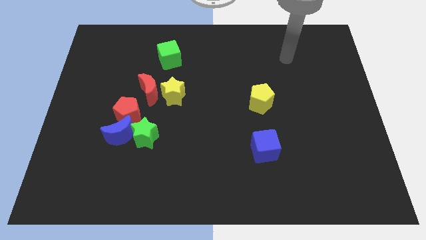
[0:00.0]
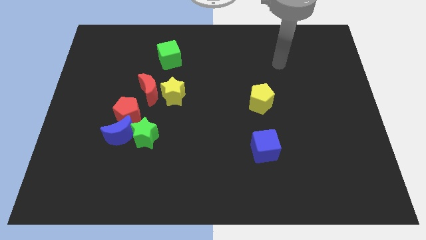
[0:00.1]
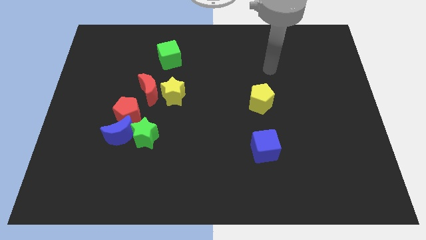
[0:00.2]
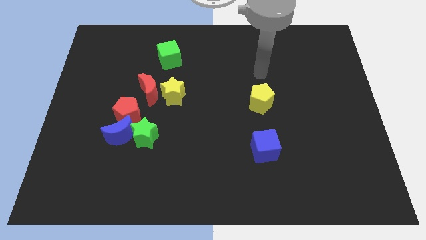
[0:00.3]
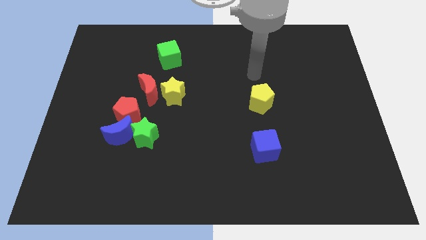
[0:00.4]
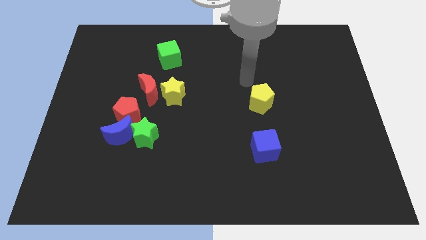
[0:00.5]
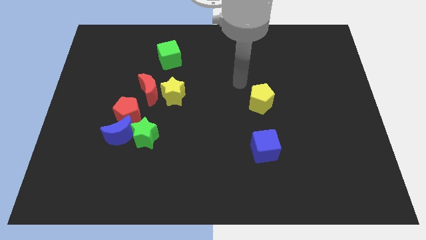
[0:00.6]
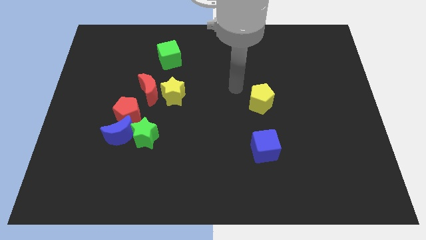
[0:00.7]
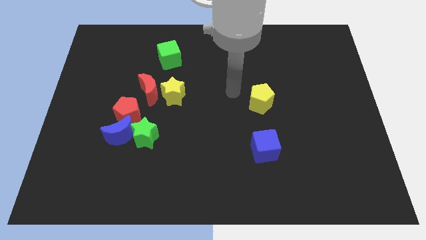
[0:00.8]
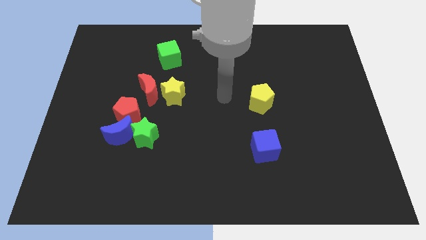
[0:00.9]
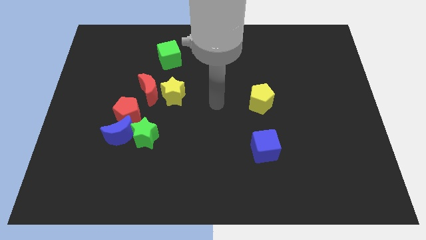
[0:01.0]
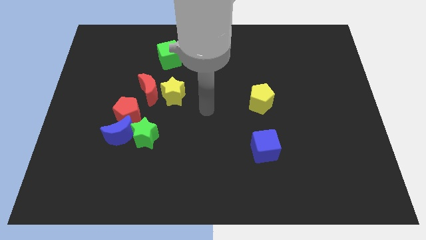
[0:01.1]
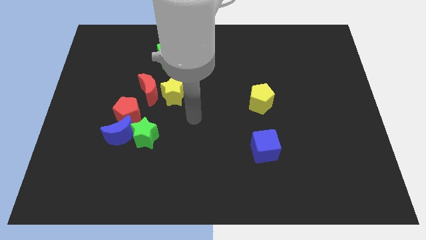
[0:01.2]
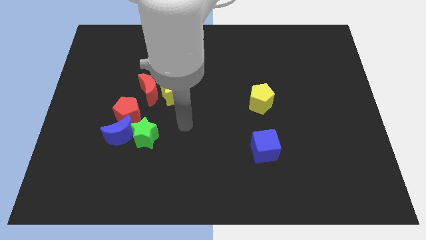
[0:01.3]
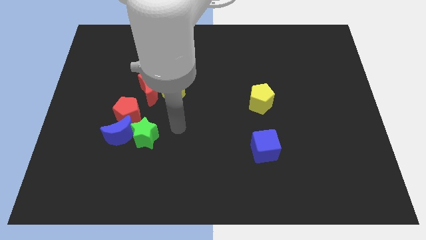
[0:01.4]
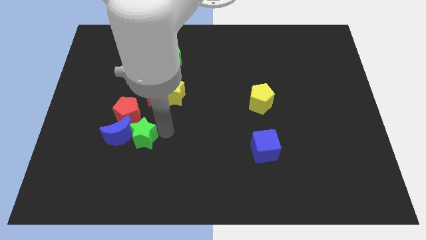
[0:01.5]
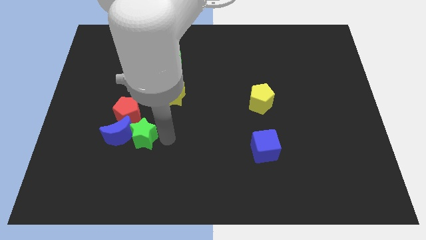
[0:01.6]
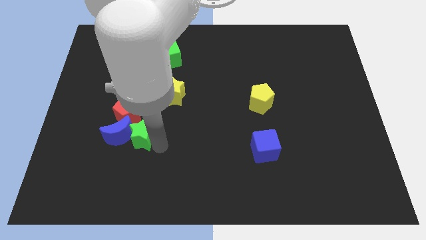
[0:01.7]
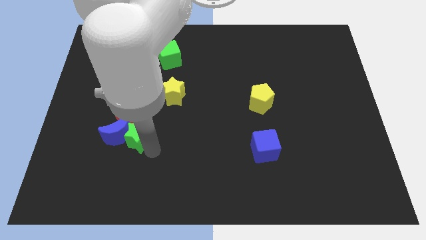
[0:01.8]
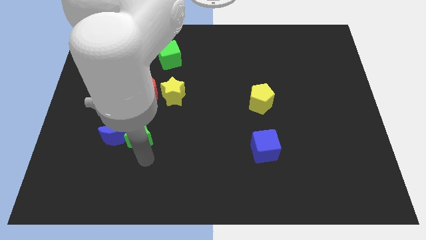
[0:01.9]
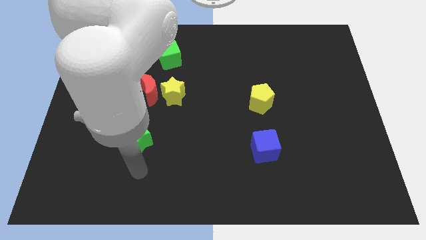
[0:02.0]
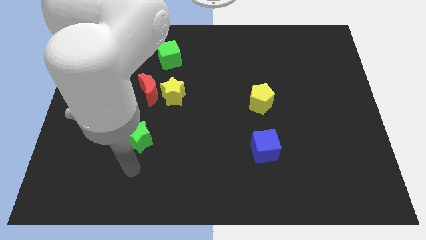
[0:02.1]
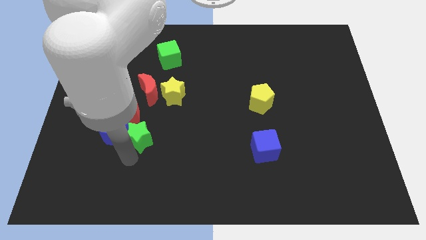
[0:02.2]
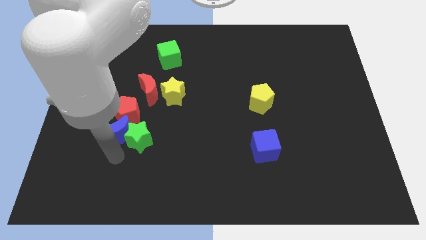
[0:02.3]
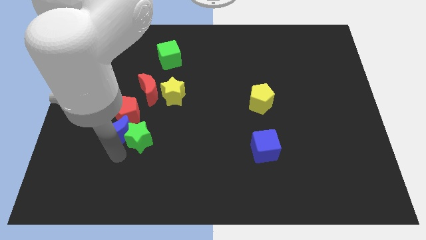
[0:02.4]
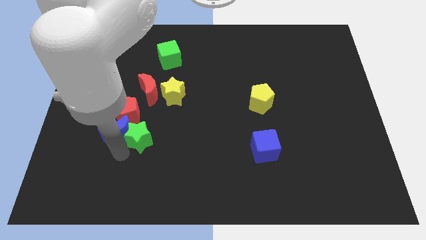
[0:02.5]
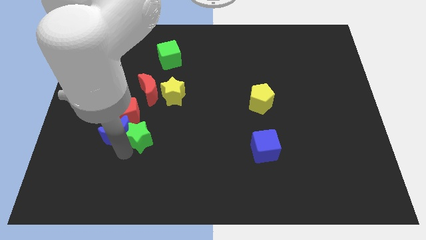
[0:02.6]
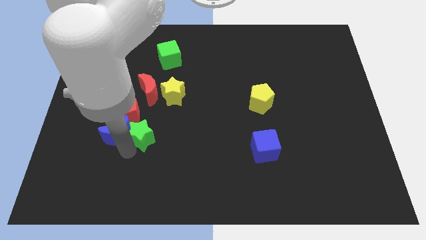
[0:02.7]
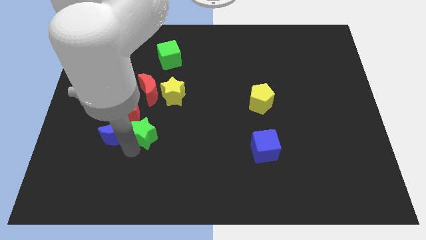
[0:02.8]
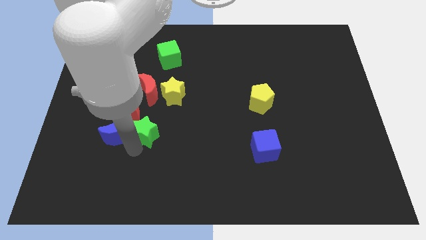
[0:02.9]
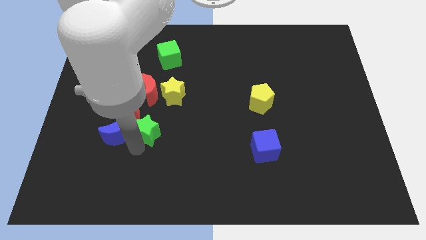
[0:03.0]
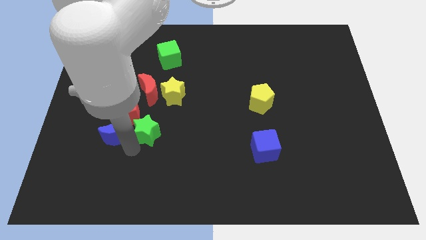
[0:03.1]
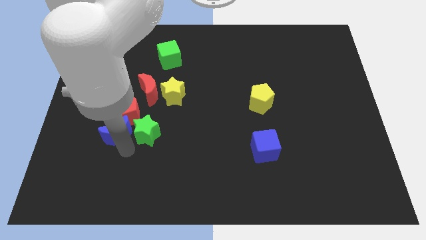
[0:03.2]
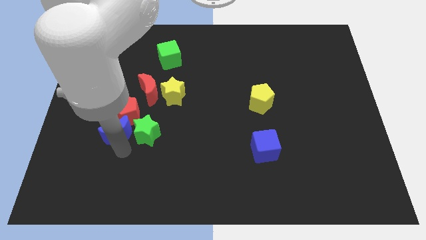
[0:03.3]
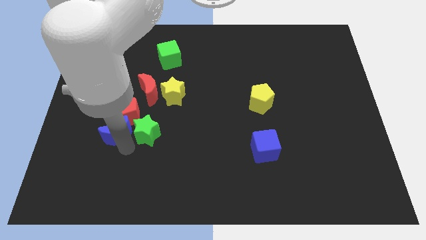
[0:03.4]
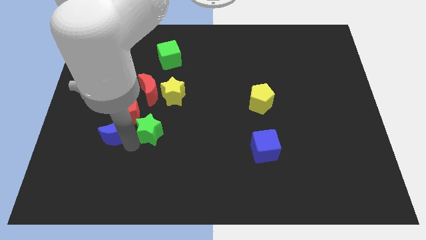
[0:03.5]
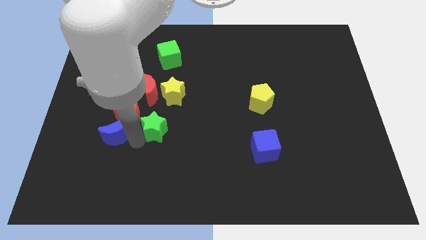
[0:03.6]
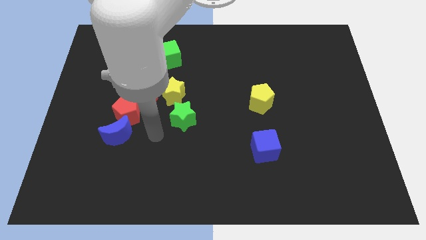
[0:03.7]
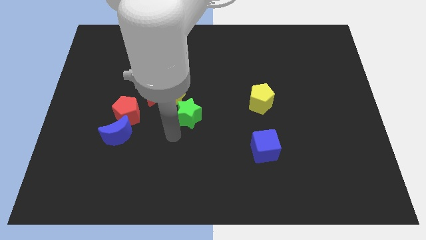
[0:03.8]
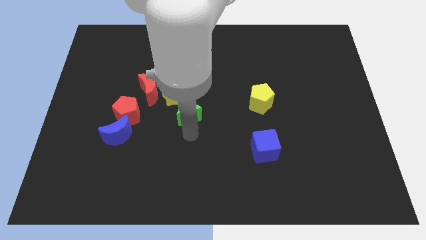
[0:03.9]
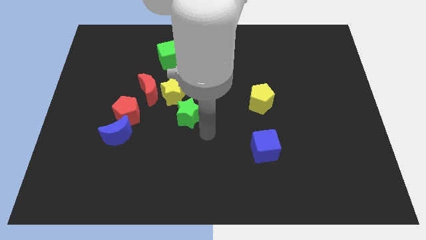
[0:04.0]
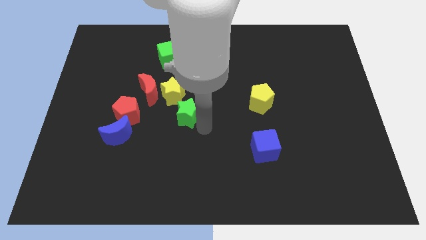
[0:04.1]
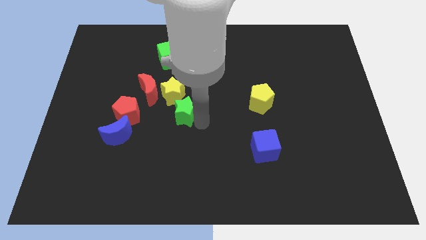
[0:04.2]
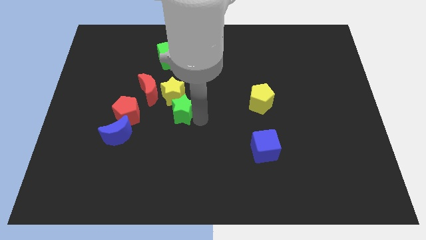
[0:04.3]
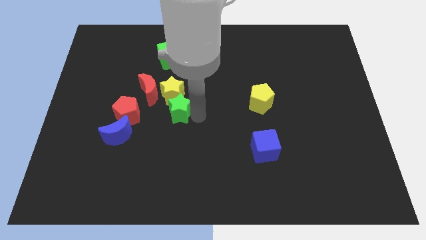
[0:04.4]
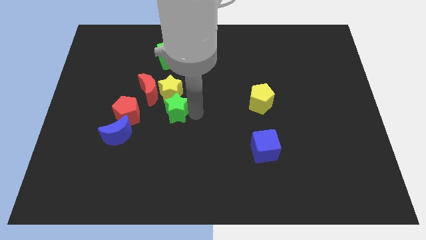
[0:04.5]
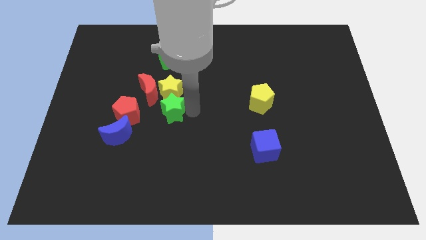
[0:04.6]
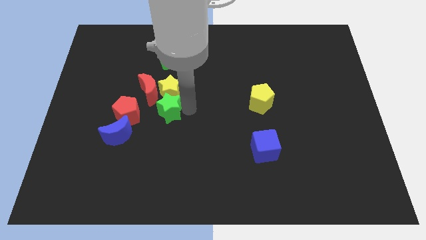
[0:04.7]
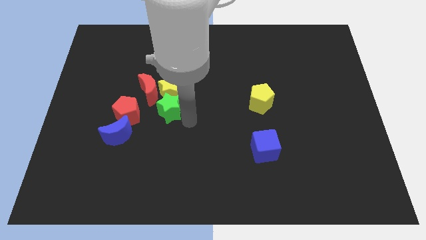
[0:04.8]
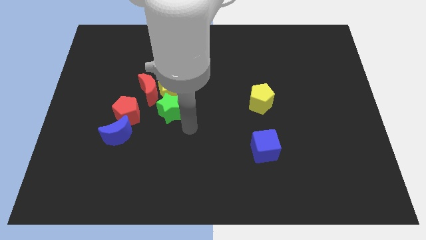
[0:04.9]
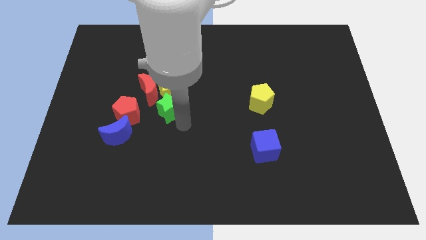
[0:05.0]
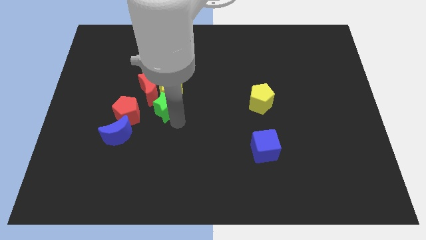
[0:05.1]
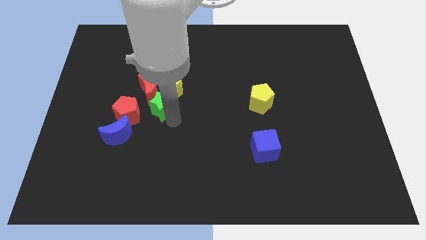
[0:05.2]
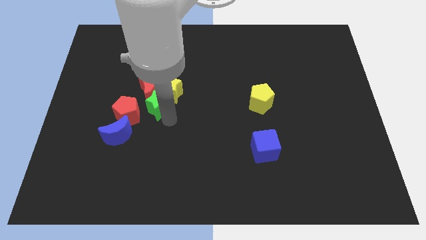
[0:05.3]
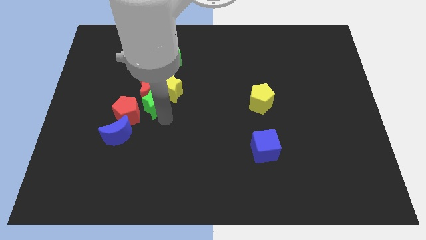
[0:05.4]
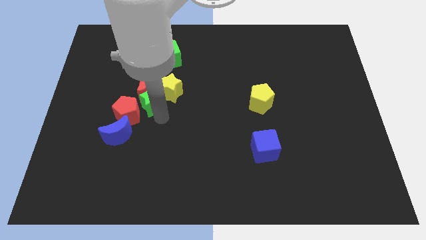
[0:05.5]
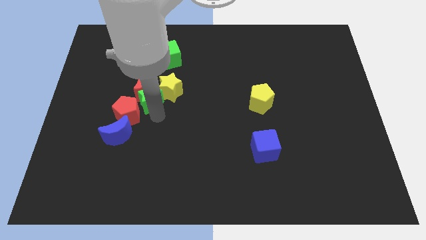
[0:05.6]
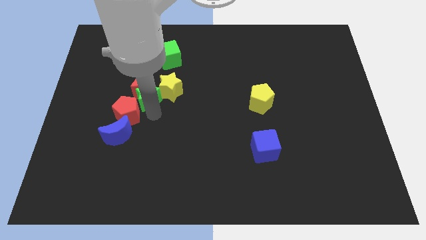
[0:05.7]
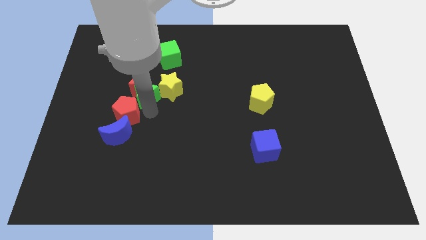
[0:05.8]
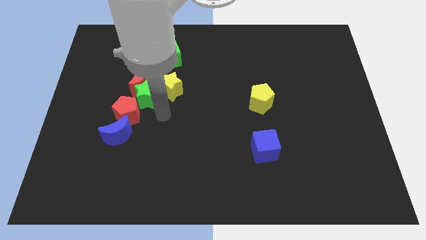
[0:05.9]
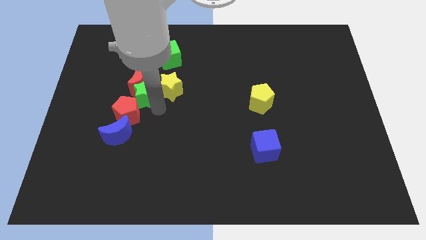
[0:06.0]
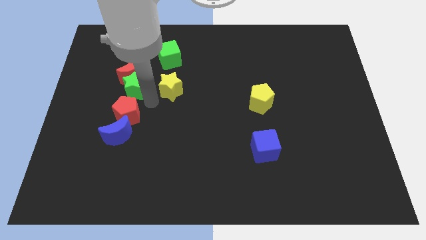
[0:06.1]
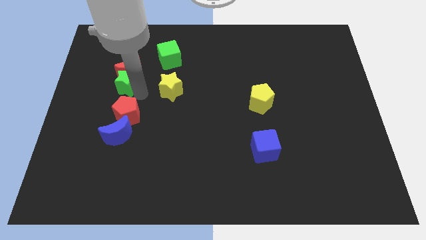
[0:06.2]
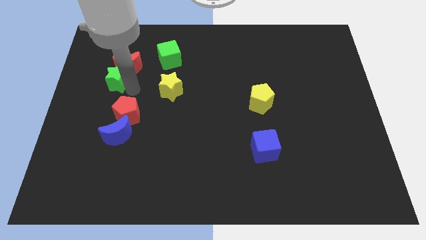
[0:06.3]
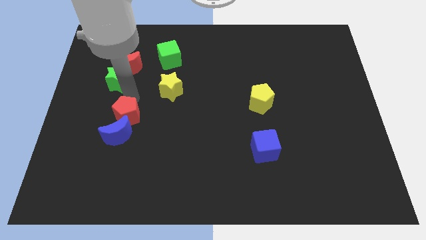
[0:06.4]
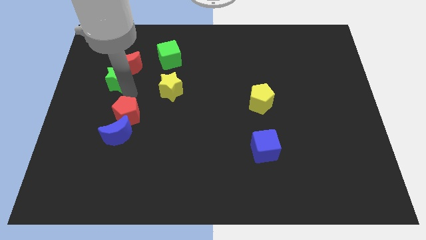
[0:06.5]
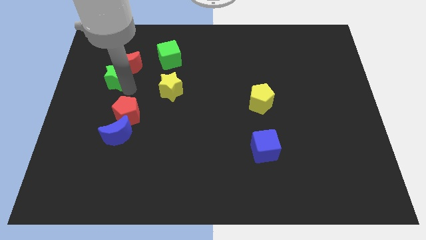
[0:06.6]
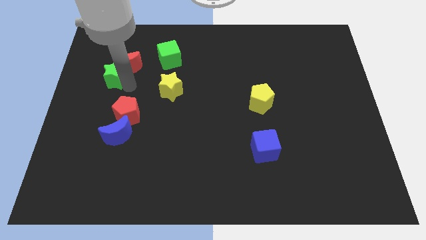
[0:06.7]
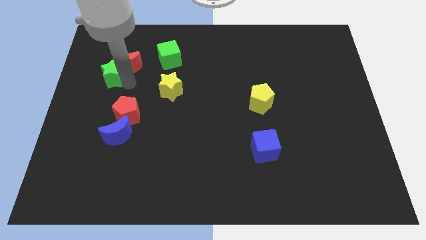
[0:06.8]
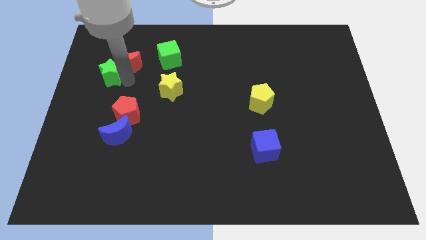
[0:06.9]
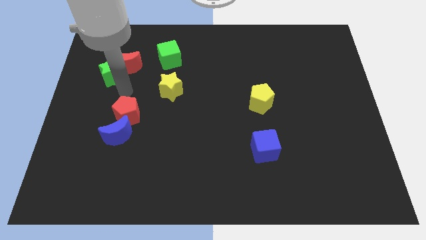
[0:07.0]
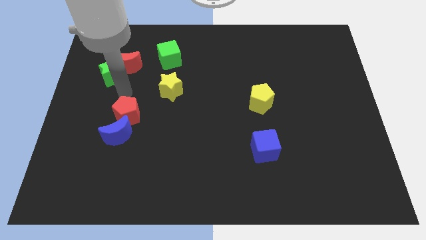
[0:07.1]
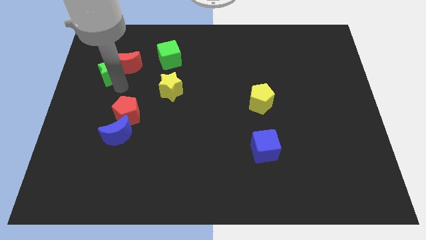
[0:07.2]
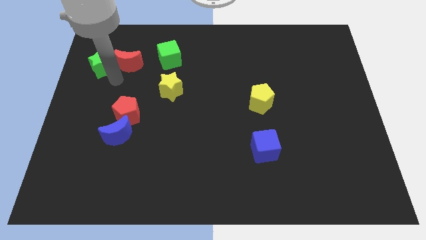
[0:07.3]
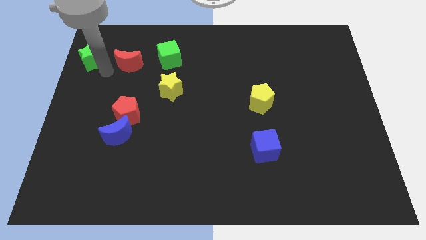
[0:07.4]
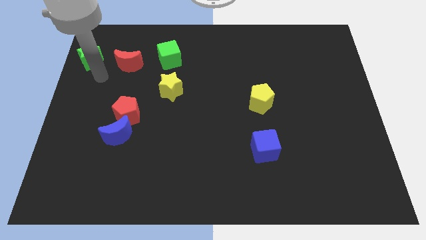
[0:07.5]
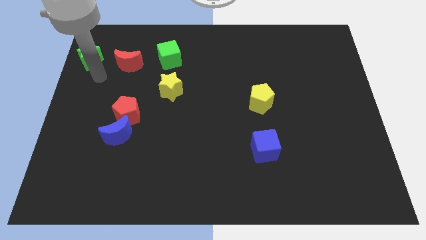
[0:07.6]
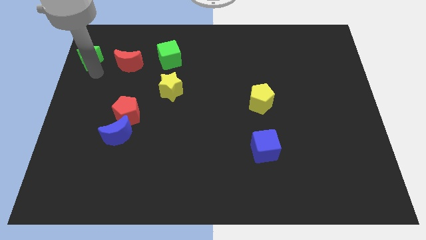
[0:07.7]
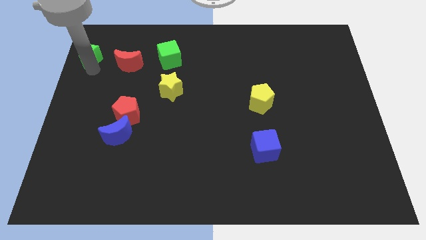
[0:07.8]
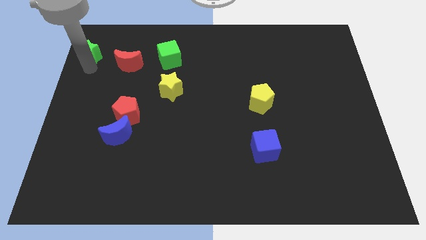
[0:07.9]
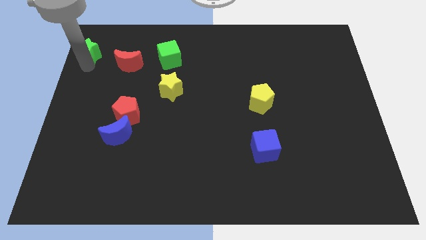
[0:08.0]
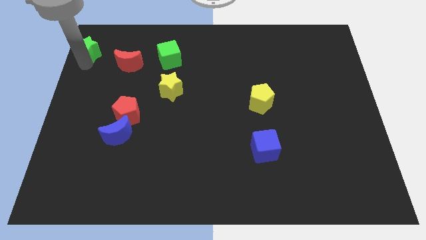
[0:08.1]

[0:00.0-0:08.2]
slide the green star to the top left
